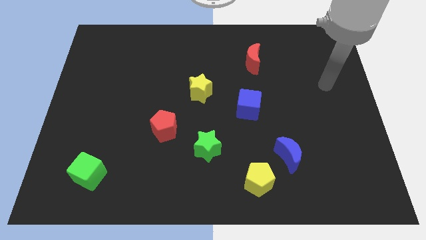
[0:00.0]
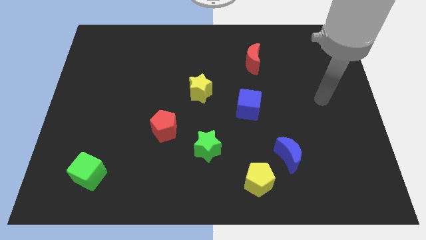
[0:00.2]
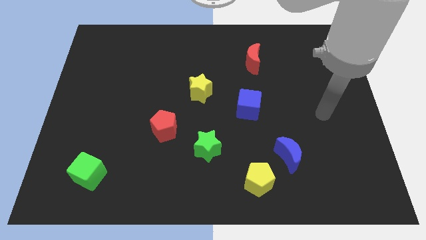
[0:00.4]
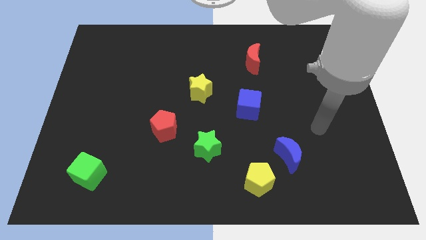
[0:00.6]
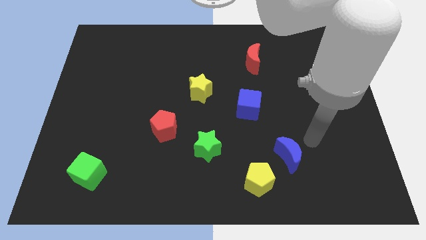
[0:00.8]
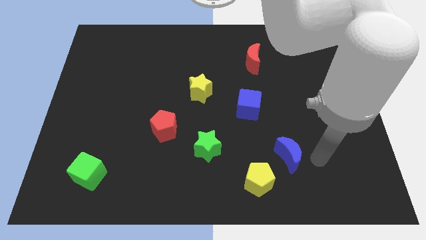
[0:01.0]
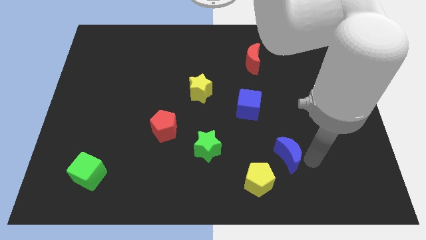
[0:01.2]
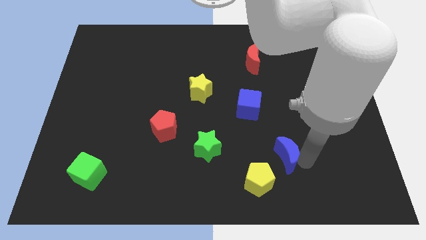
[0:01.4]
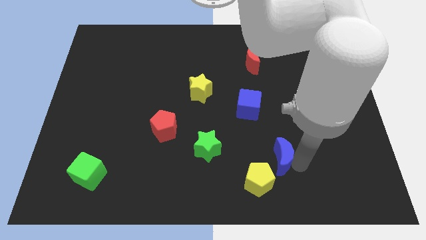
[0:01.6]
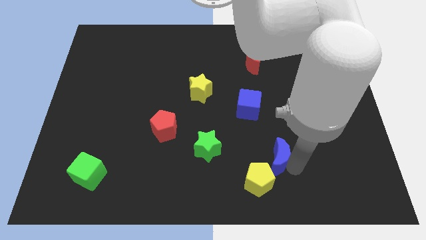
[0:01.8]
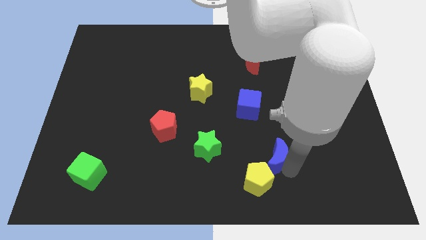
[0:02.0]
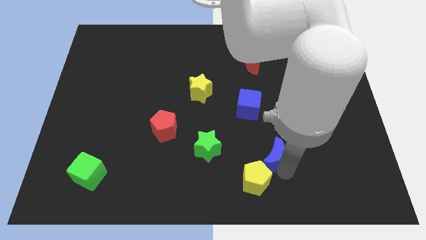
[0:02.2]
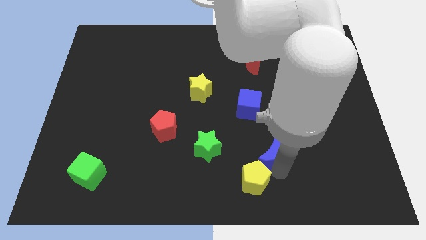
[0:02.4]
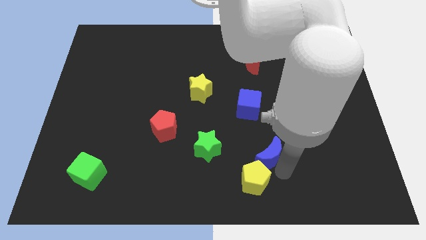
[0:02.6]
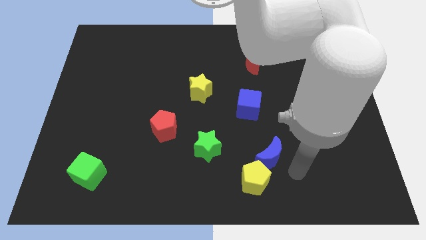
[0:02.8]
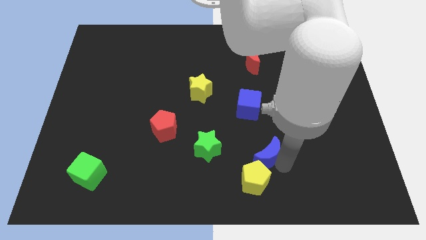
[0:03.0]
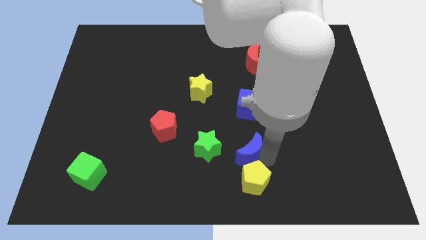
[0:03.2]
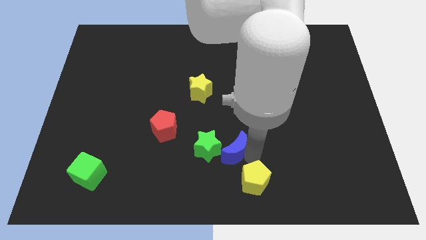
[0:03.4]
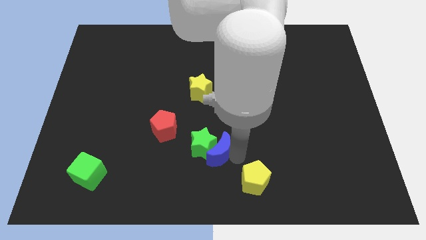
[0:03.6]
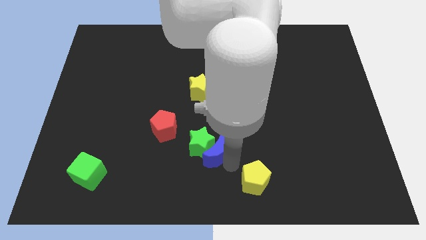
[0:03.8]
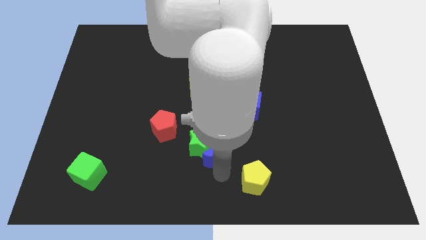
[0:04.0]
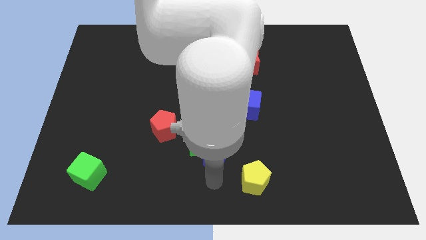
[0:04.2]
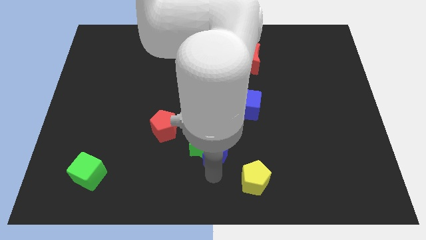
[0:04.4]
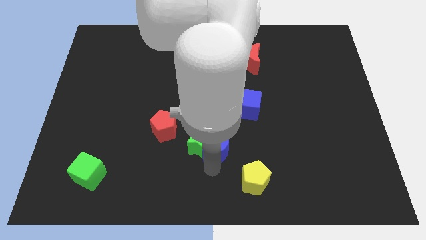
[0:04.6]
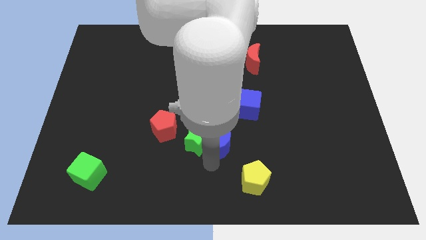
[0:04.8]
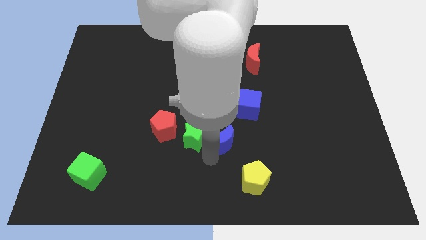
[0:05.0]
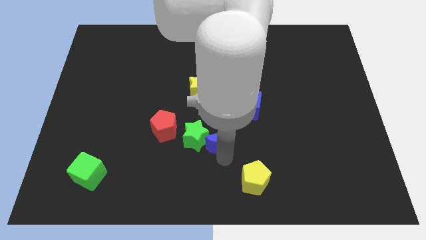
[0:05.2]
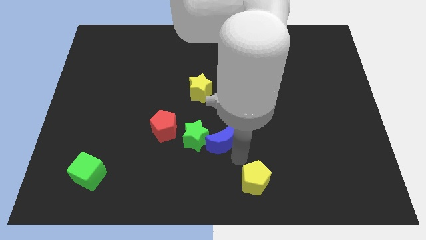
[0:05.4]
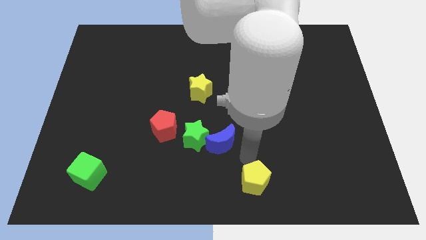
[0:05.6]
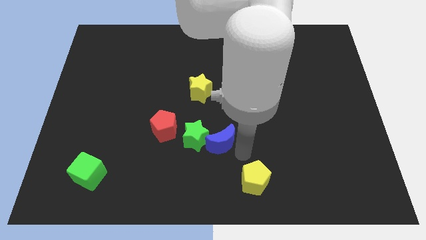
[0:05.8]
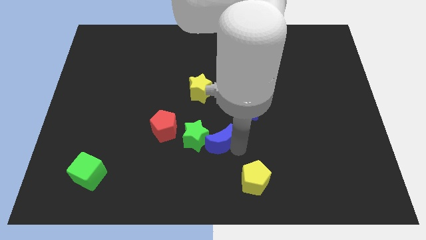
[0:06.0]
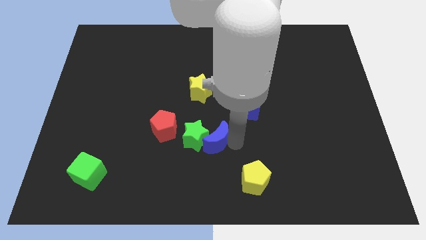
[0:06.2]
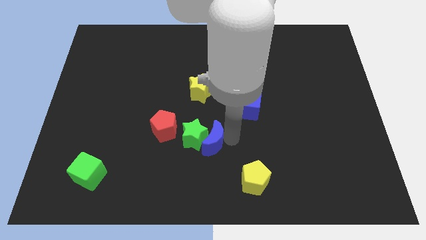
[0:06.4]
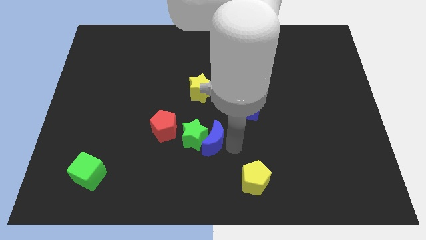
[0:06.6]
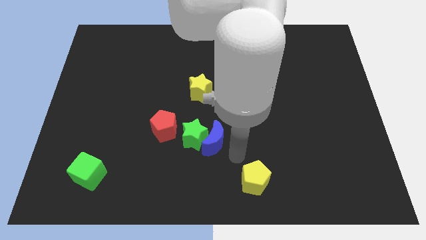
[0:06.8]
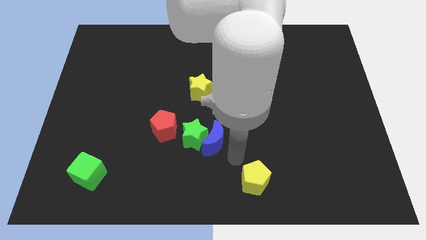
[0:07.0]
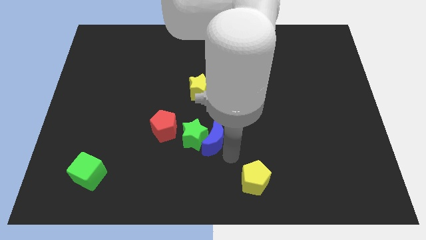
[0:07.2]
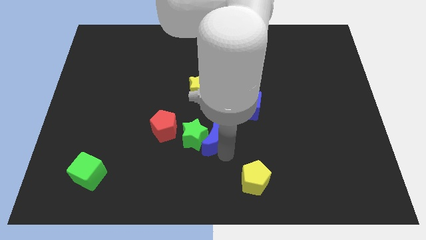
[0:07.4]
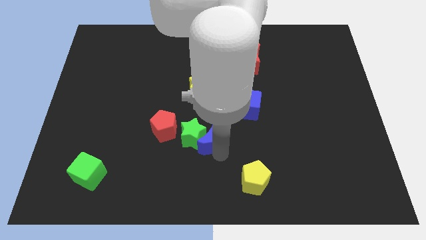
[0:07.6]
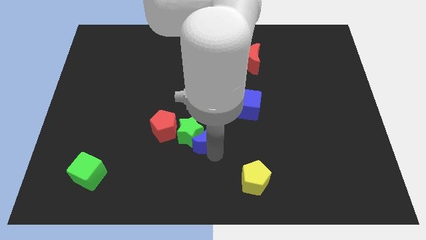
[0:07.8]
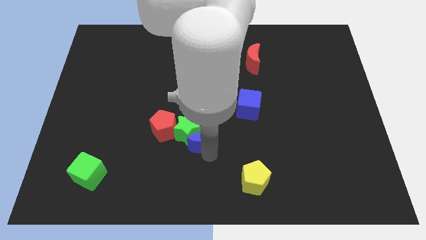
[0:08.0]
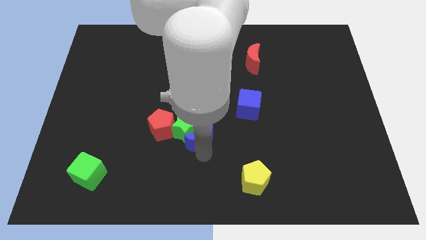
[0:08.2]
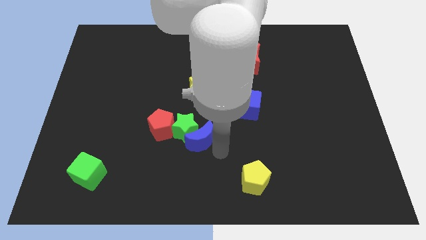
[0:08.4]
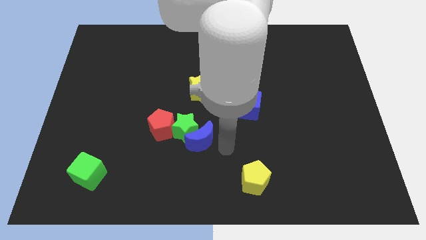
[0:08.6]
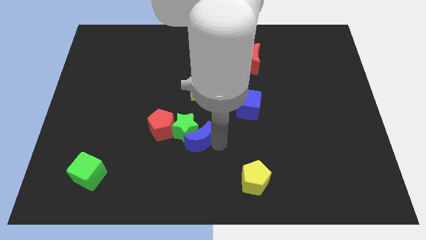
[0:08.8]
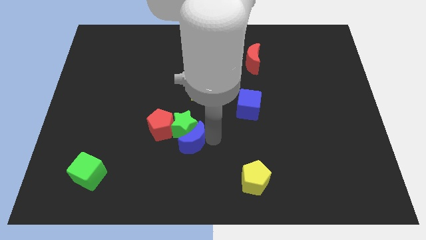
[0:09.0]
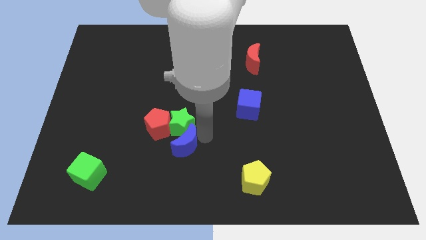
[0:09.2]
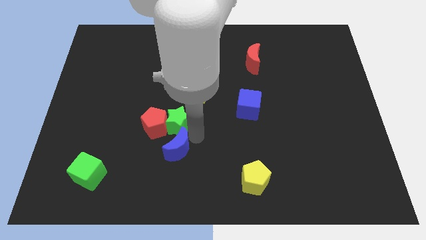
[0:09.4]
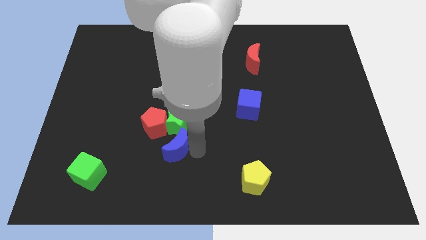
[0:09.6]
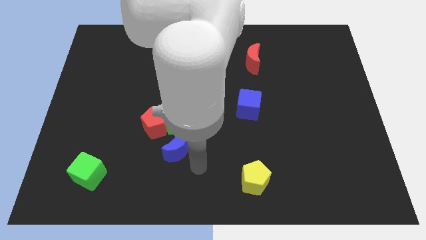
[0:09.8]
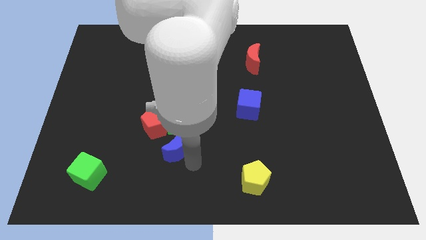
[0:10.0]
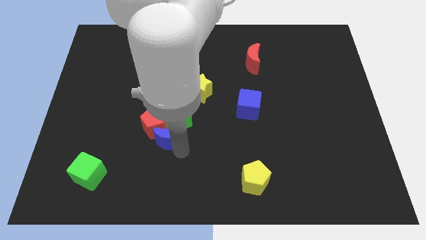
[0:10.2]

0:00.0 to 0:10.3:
put the blue moon towards the red pentagon

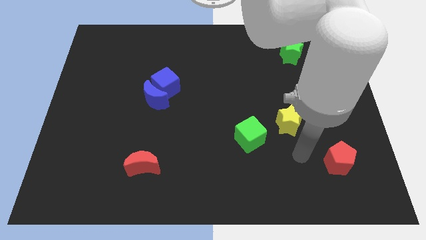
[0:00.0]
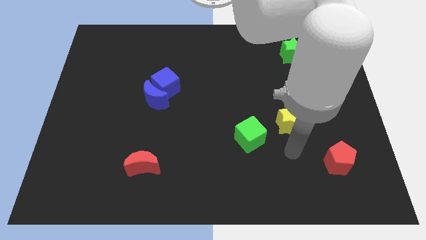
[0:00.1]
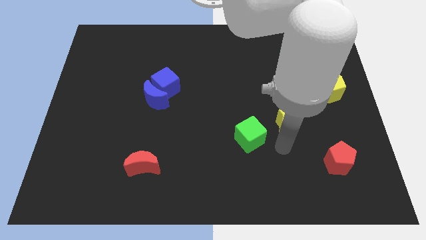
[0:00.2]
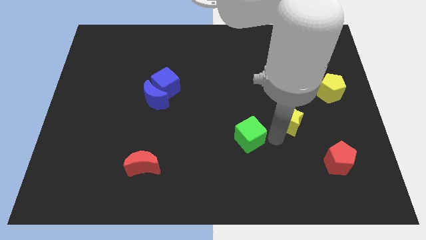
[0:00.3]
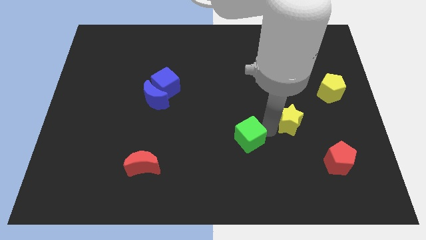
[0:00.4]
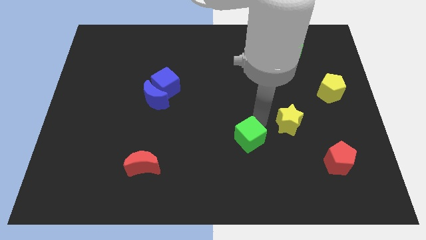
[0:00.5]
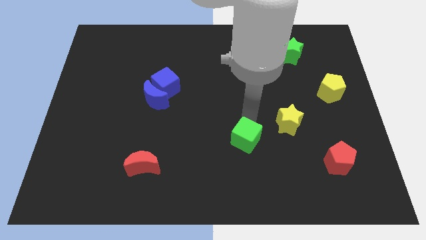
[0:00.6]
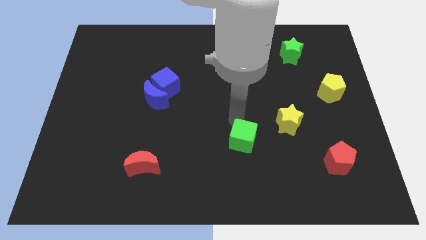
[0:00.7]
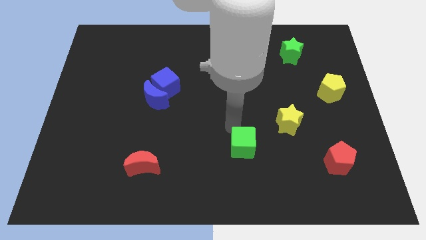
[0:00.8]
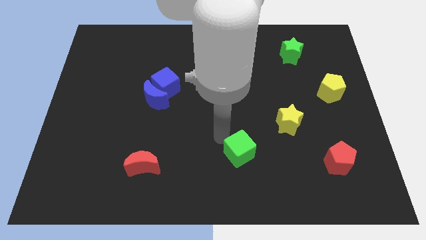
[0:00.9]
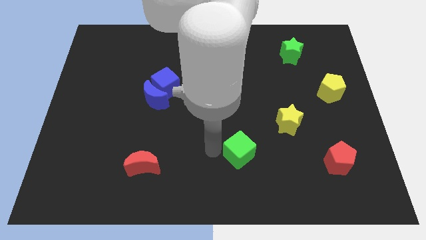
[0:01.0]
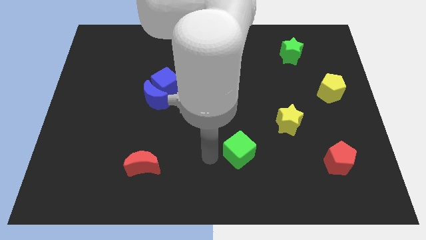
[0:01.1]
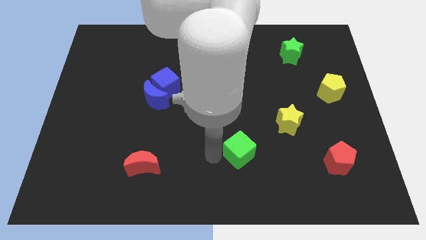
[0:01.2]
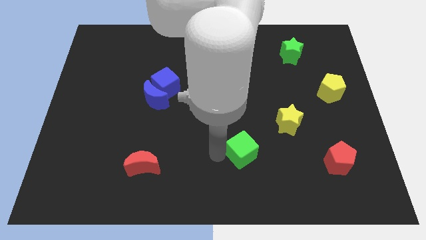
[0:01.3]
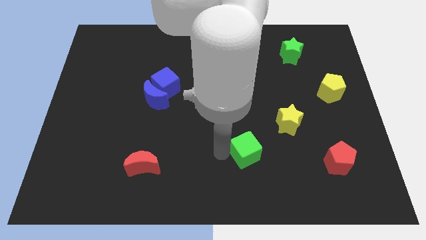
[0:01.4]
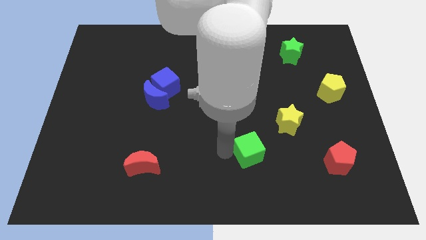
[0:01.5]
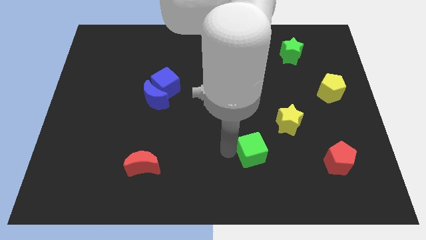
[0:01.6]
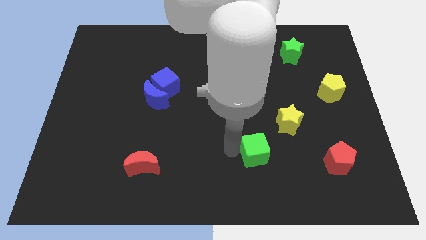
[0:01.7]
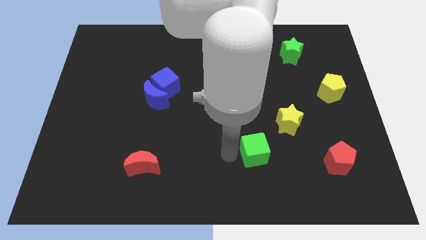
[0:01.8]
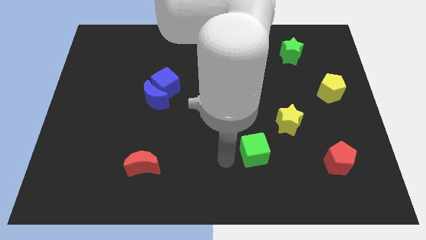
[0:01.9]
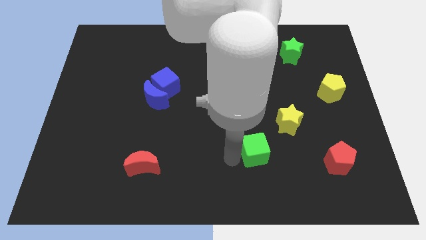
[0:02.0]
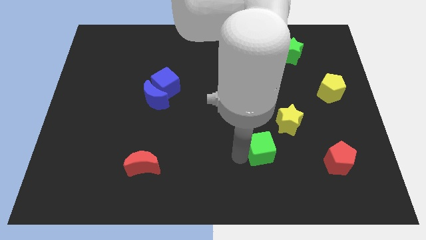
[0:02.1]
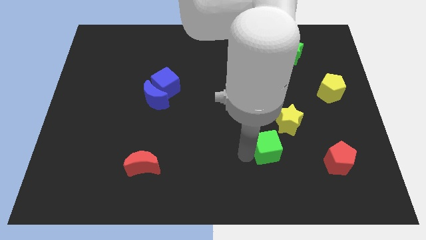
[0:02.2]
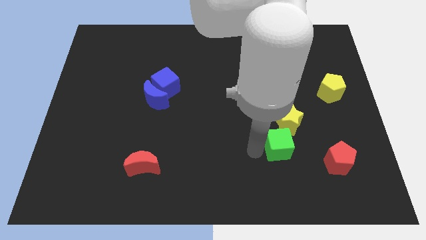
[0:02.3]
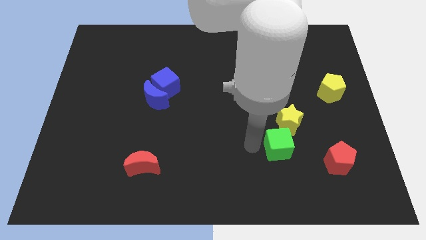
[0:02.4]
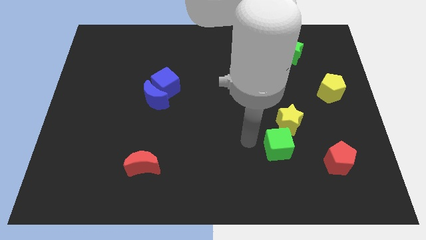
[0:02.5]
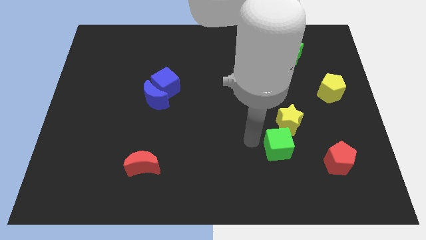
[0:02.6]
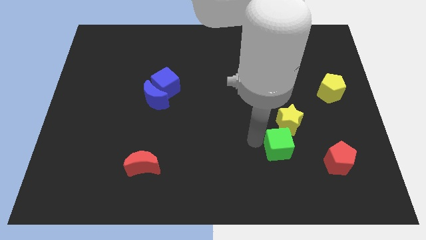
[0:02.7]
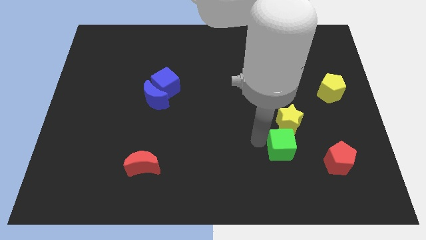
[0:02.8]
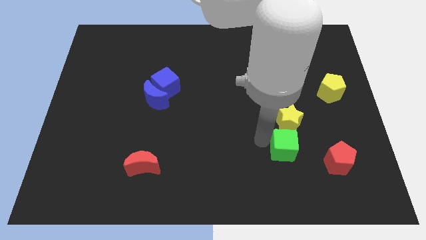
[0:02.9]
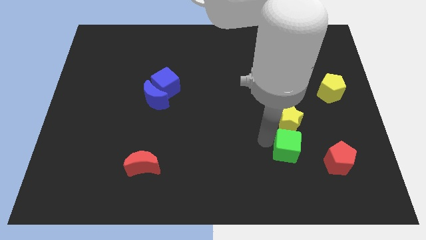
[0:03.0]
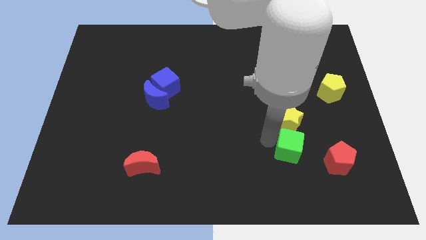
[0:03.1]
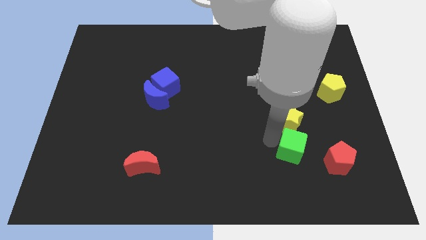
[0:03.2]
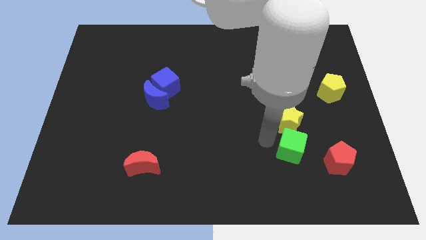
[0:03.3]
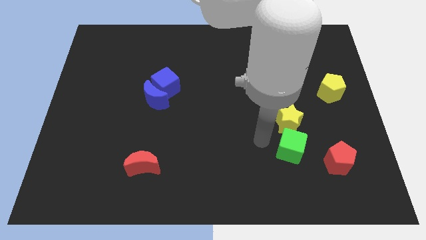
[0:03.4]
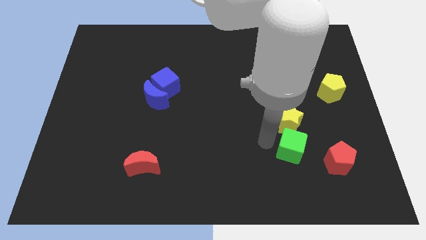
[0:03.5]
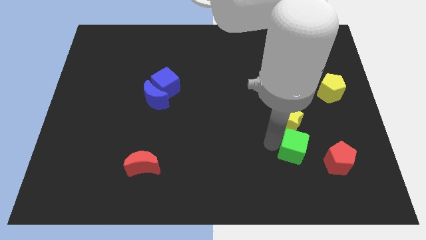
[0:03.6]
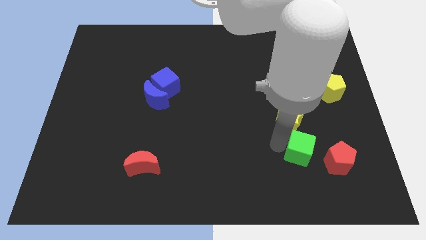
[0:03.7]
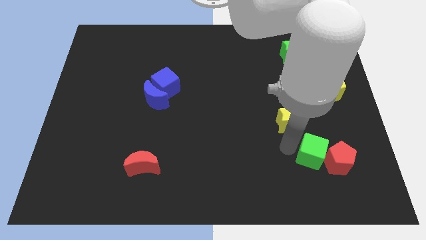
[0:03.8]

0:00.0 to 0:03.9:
slide the green cube to the red pentagon
